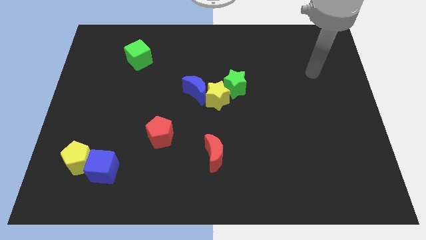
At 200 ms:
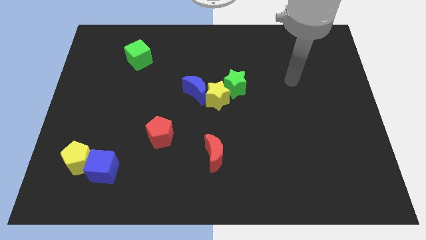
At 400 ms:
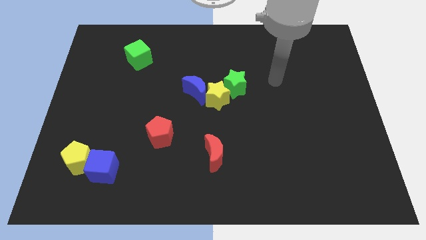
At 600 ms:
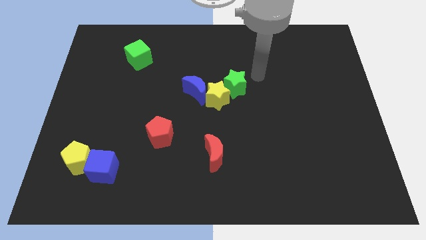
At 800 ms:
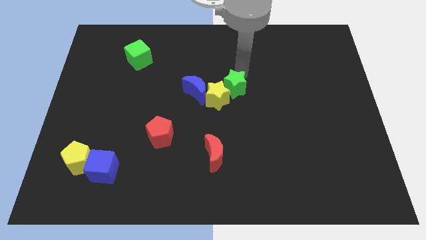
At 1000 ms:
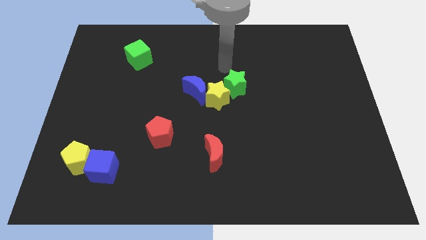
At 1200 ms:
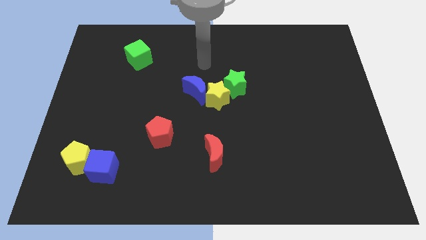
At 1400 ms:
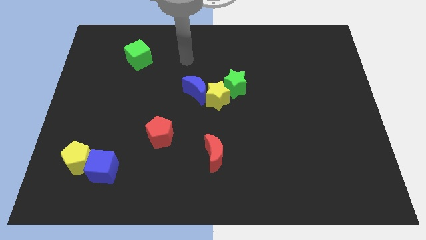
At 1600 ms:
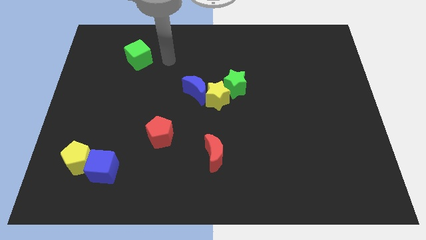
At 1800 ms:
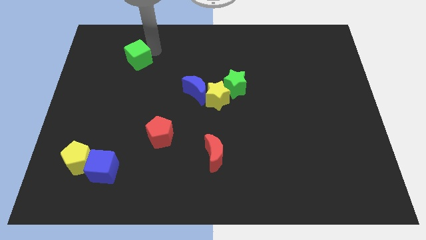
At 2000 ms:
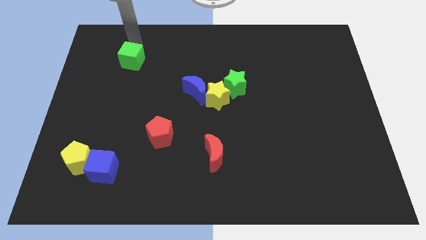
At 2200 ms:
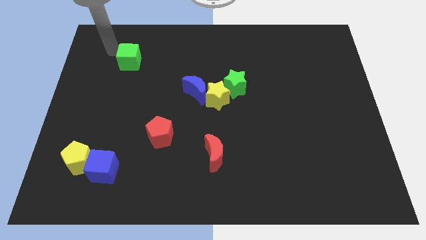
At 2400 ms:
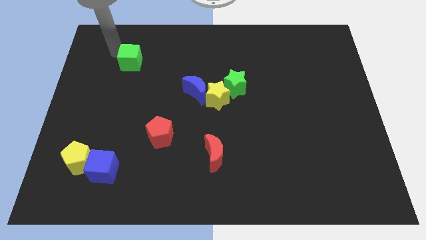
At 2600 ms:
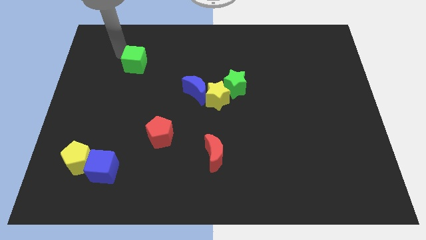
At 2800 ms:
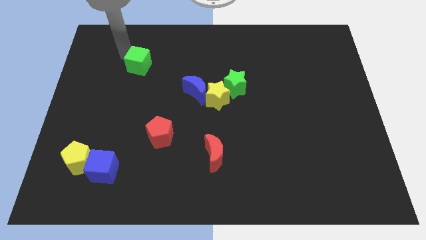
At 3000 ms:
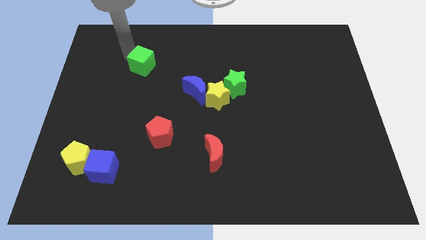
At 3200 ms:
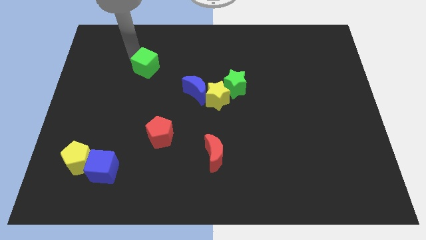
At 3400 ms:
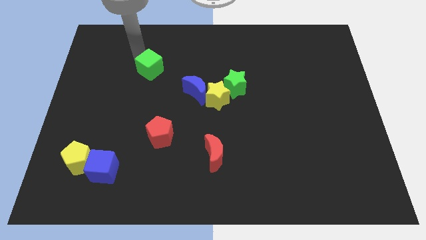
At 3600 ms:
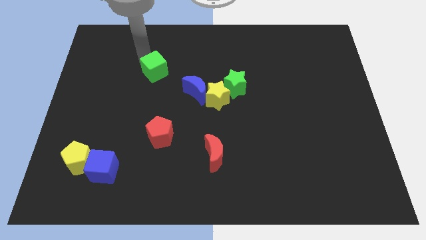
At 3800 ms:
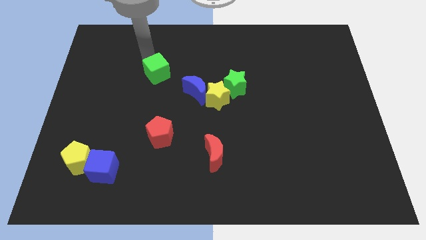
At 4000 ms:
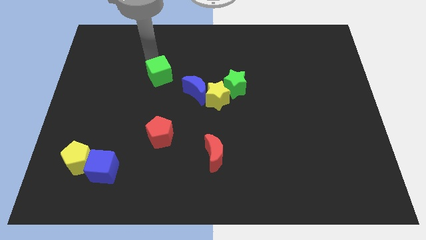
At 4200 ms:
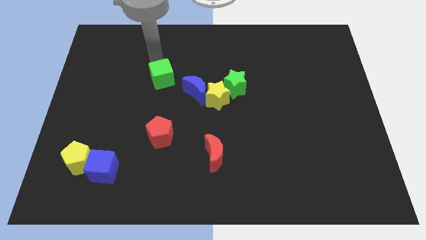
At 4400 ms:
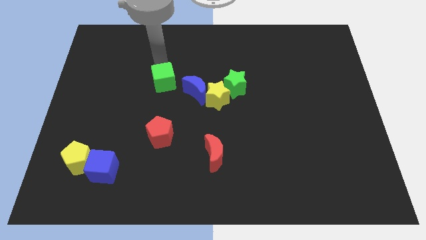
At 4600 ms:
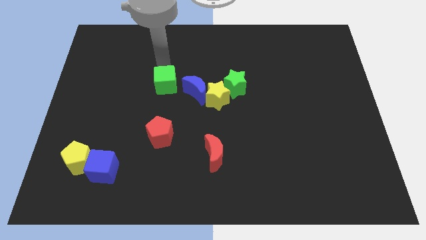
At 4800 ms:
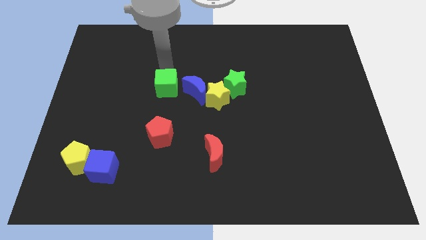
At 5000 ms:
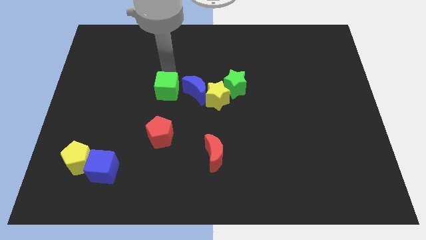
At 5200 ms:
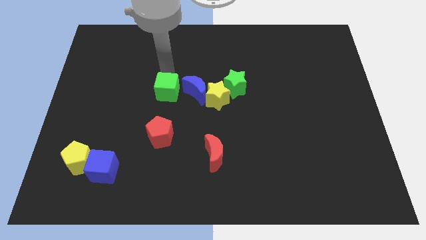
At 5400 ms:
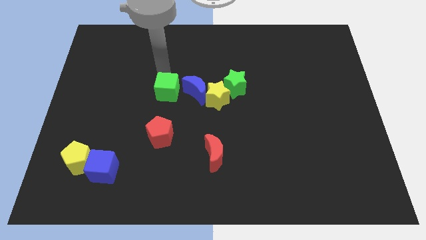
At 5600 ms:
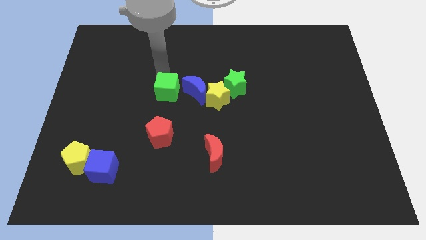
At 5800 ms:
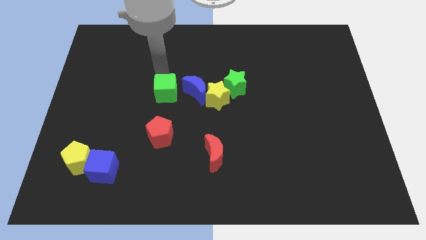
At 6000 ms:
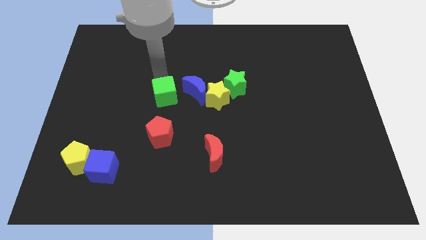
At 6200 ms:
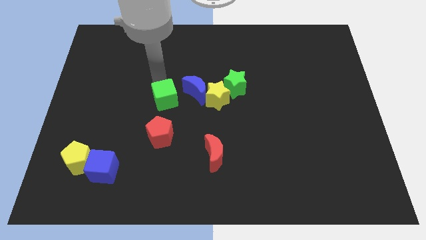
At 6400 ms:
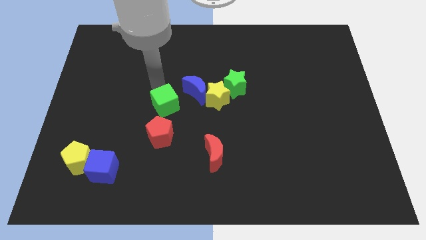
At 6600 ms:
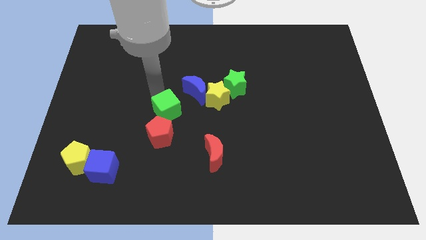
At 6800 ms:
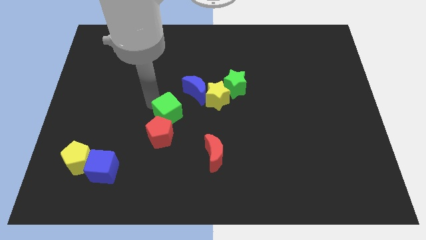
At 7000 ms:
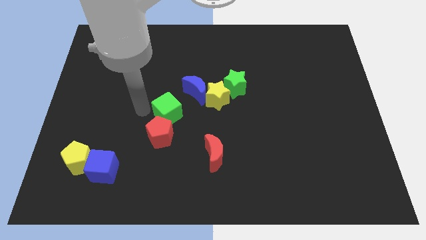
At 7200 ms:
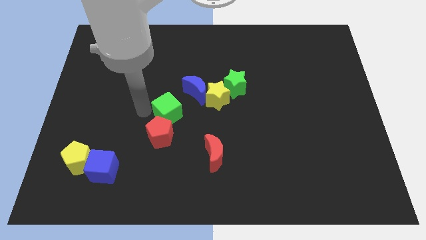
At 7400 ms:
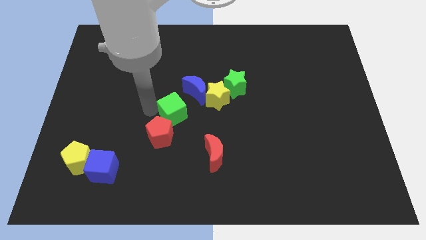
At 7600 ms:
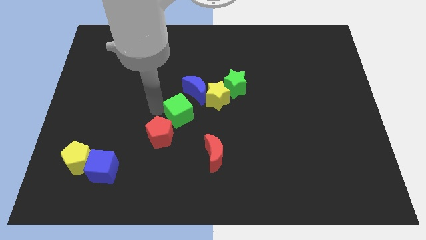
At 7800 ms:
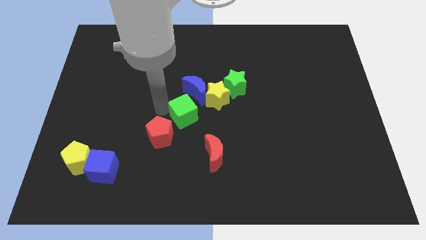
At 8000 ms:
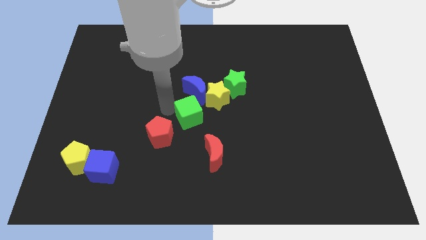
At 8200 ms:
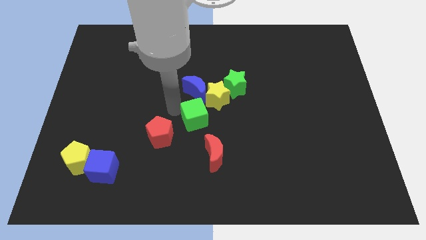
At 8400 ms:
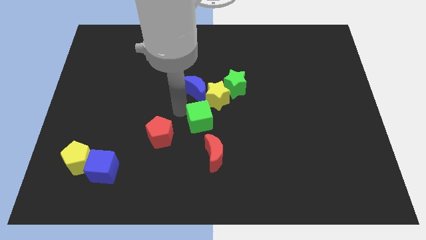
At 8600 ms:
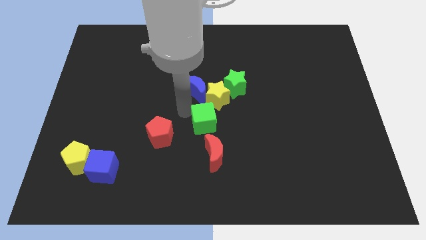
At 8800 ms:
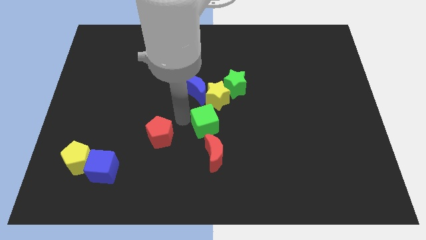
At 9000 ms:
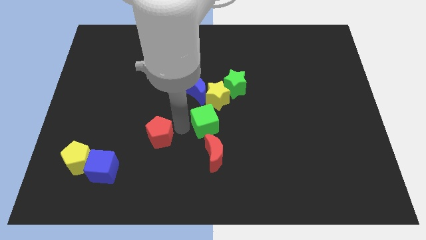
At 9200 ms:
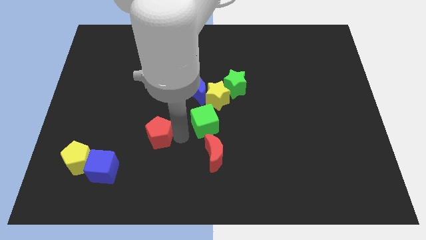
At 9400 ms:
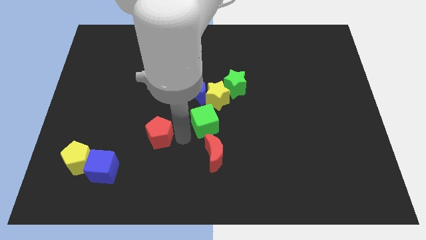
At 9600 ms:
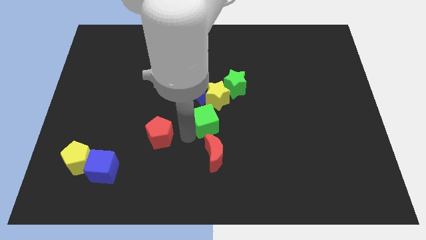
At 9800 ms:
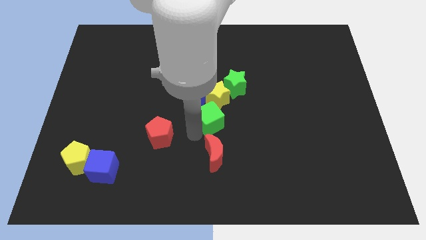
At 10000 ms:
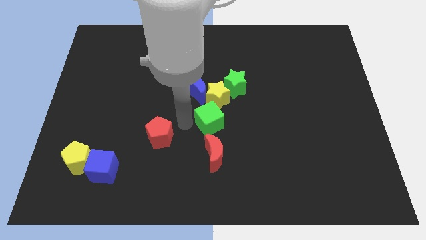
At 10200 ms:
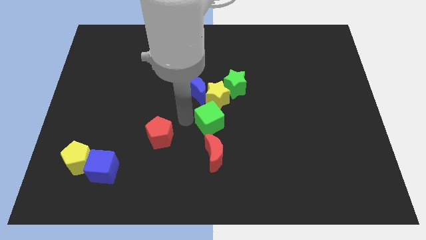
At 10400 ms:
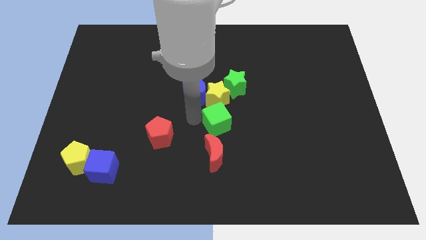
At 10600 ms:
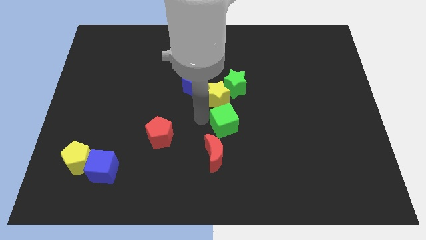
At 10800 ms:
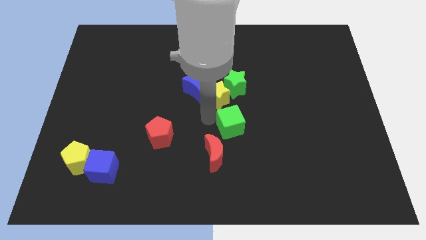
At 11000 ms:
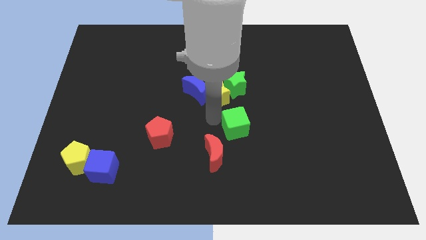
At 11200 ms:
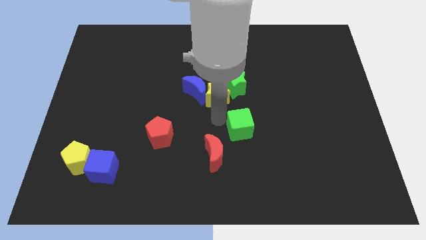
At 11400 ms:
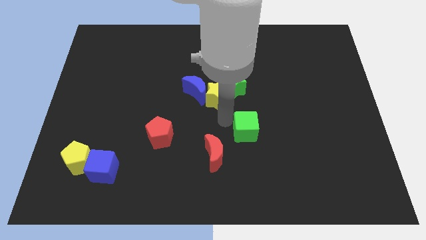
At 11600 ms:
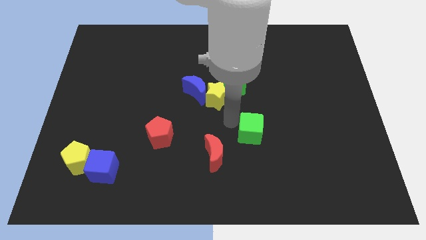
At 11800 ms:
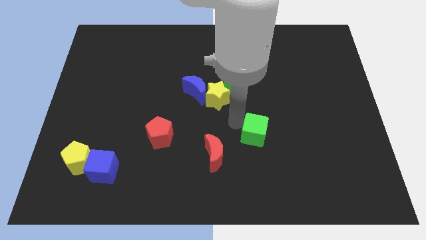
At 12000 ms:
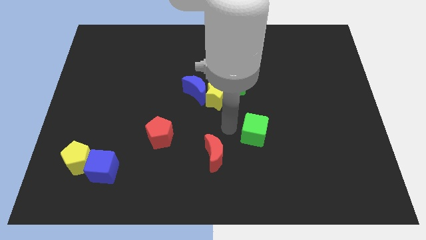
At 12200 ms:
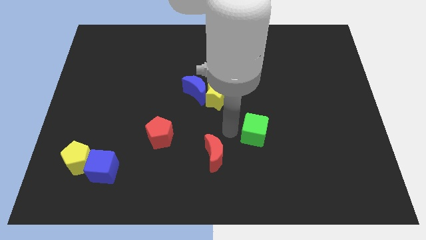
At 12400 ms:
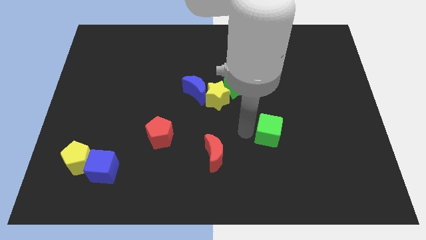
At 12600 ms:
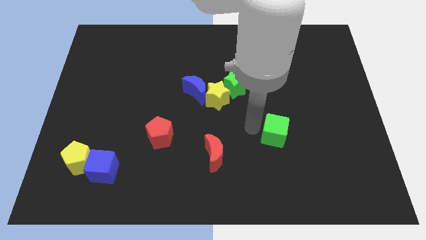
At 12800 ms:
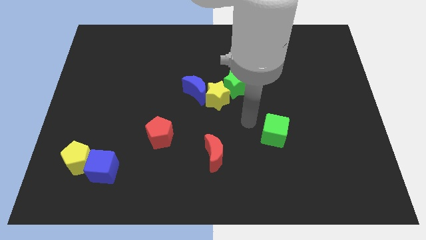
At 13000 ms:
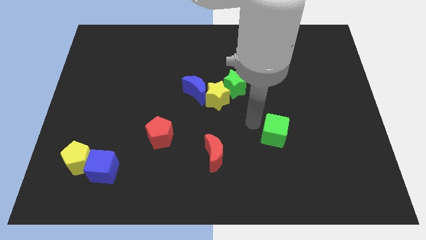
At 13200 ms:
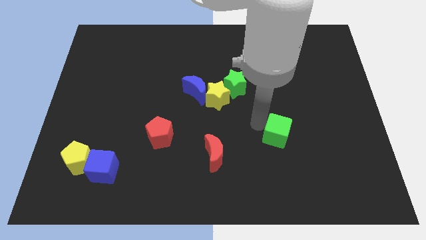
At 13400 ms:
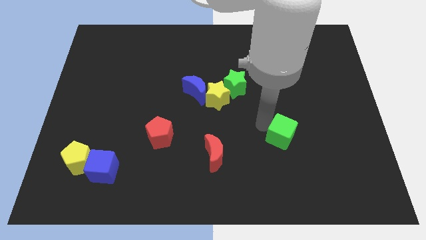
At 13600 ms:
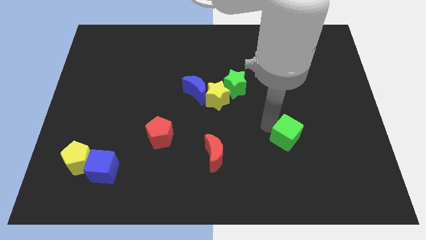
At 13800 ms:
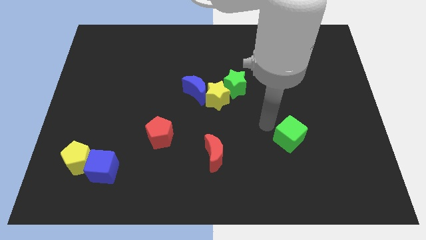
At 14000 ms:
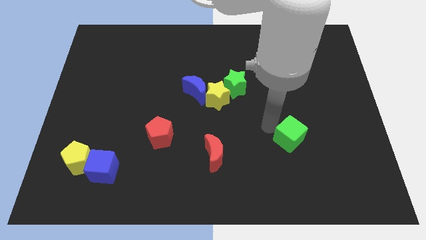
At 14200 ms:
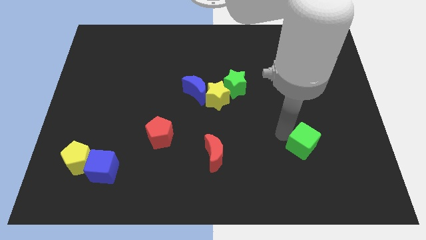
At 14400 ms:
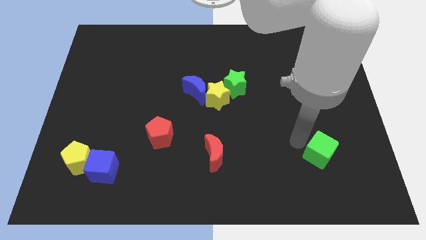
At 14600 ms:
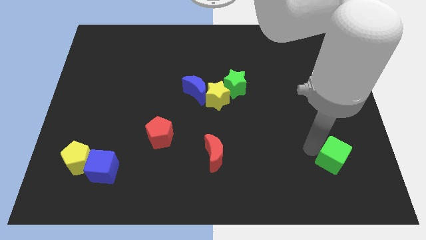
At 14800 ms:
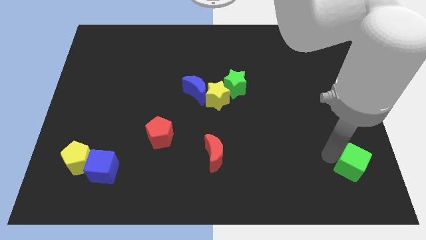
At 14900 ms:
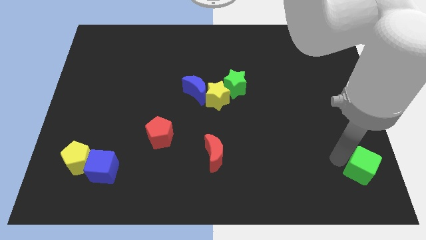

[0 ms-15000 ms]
move the green cube to the lower right corner
